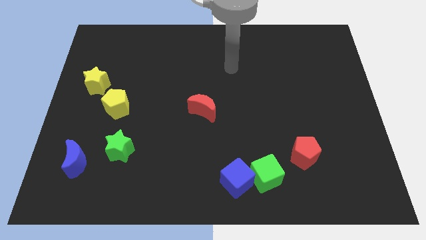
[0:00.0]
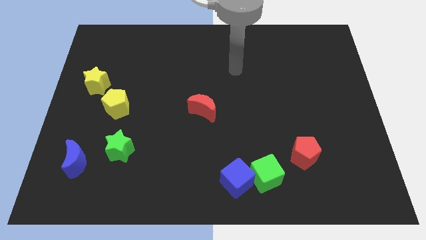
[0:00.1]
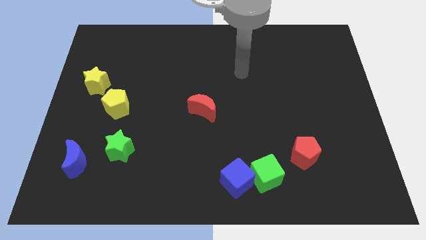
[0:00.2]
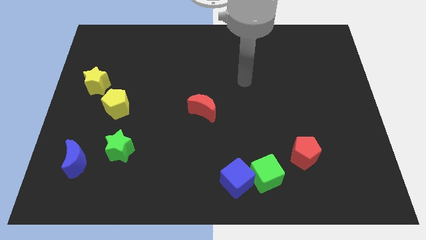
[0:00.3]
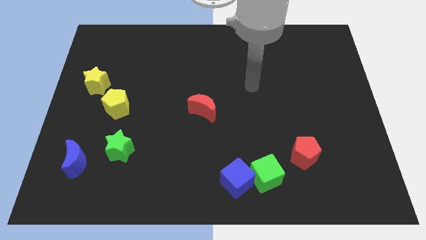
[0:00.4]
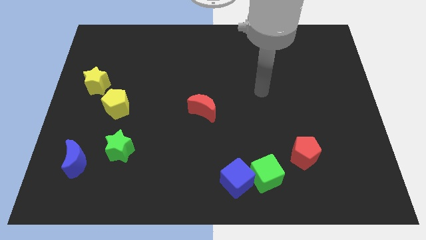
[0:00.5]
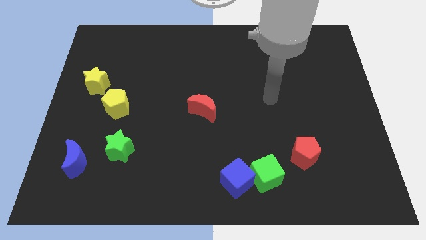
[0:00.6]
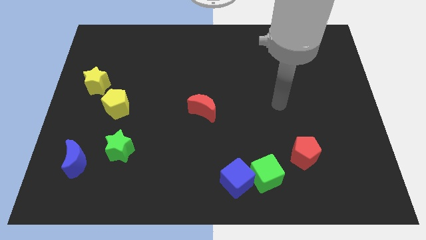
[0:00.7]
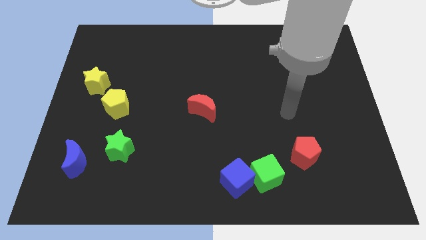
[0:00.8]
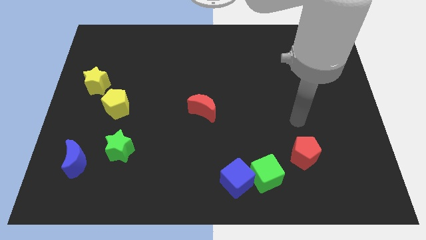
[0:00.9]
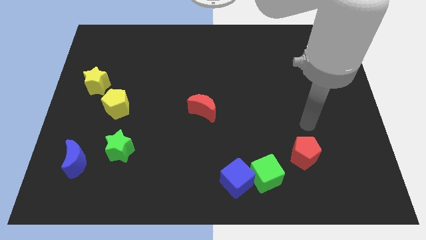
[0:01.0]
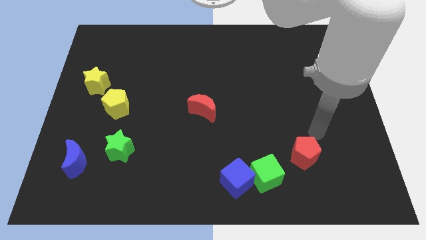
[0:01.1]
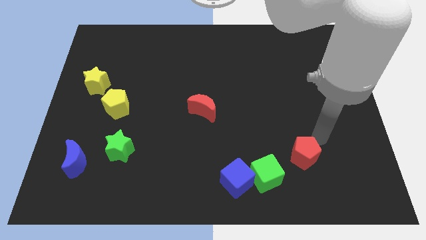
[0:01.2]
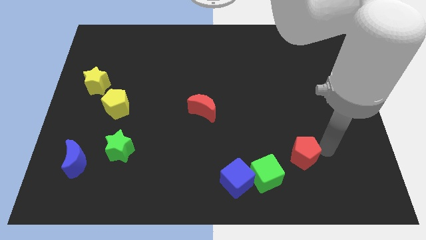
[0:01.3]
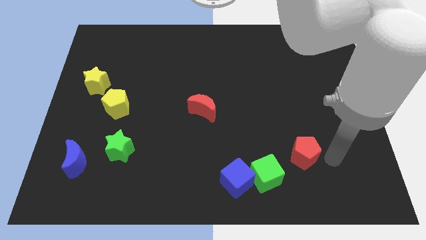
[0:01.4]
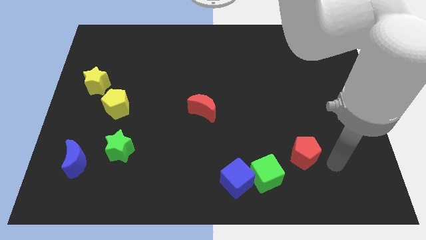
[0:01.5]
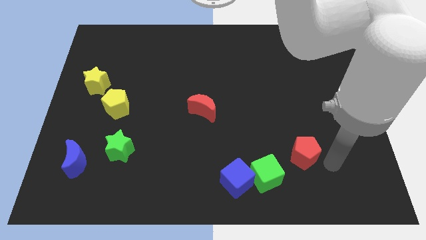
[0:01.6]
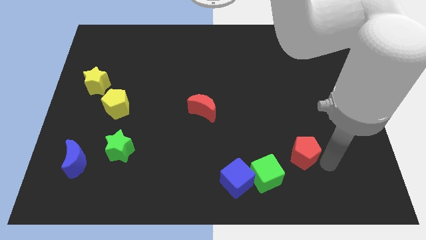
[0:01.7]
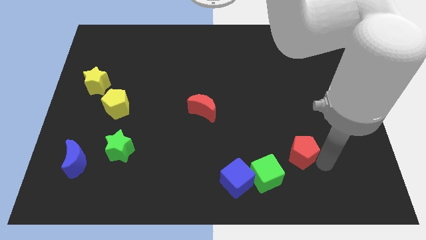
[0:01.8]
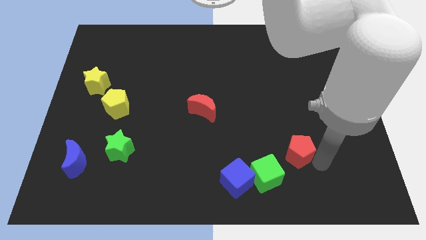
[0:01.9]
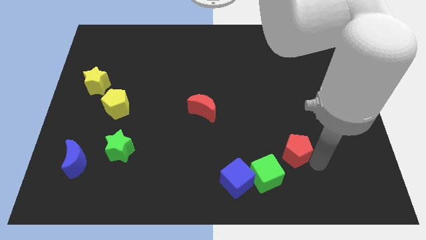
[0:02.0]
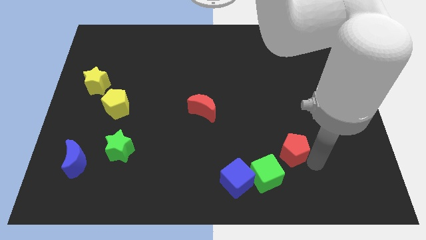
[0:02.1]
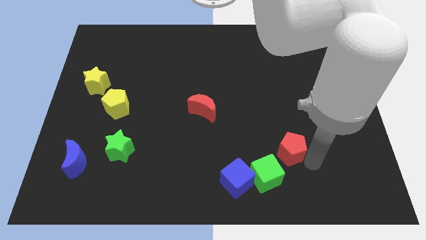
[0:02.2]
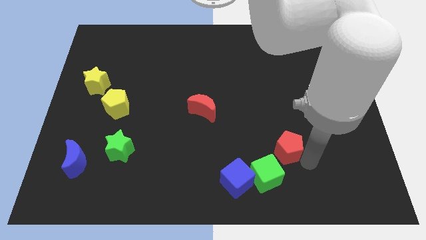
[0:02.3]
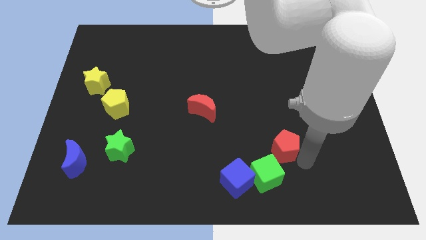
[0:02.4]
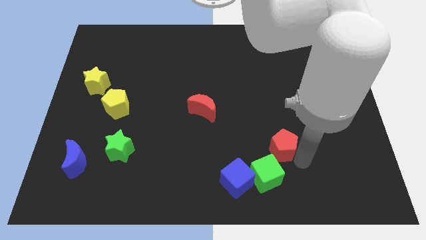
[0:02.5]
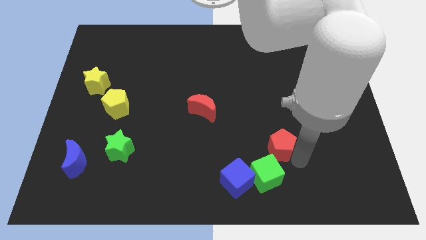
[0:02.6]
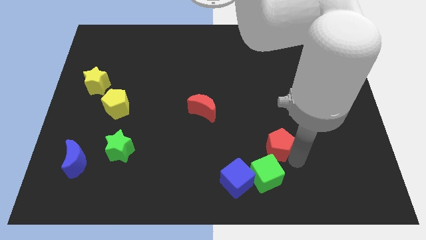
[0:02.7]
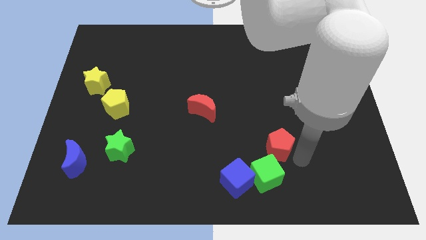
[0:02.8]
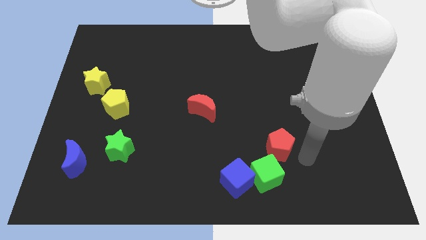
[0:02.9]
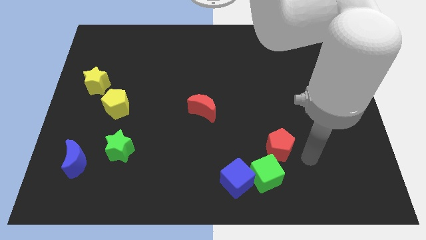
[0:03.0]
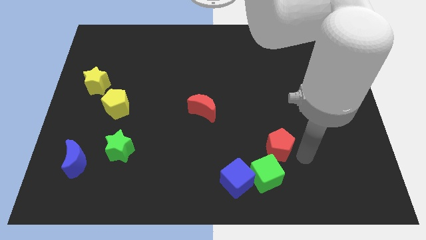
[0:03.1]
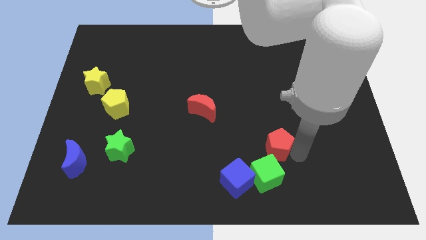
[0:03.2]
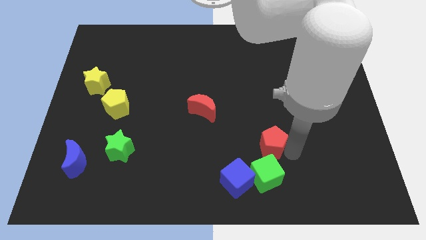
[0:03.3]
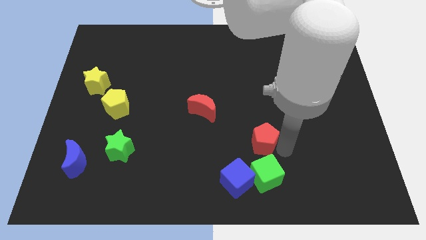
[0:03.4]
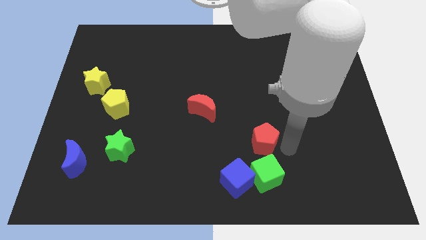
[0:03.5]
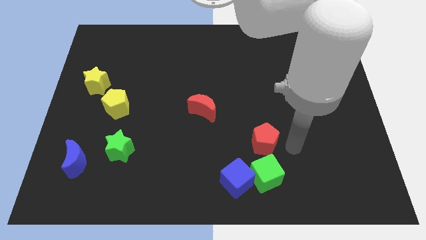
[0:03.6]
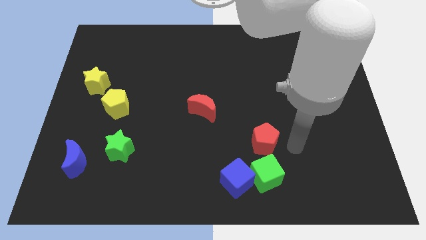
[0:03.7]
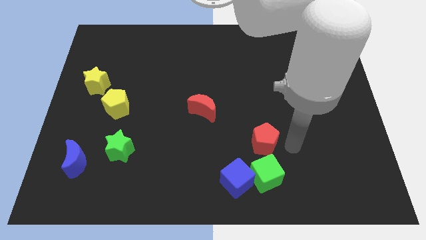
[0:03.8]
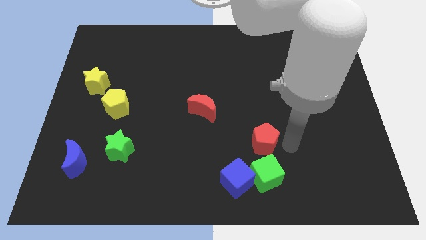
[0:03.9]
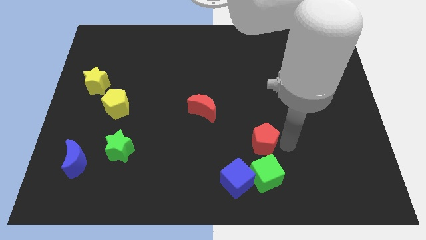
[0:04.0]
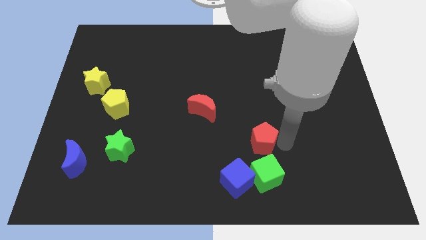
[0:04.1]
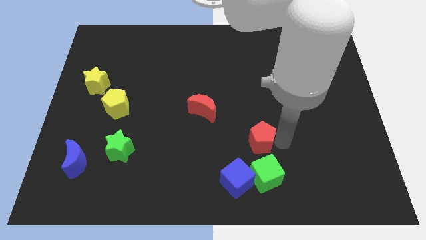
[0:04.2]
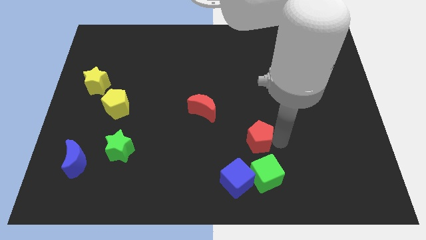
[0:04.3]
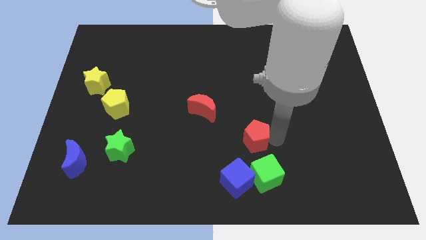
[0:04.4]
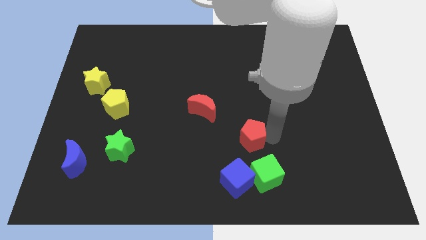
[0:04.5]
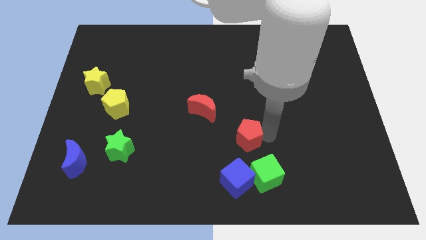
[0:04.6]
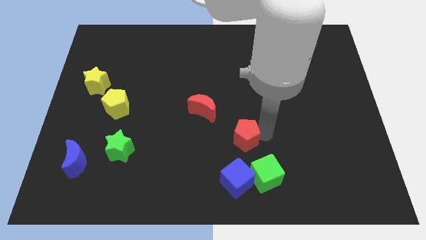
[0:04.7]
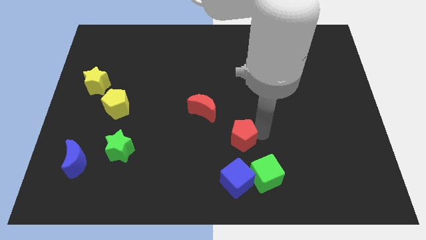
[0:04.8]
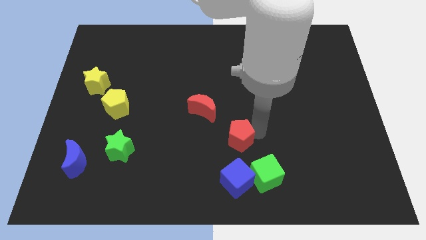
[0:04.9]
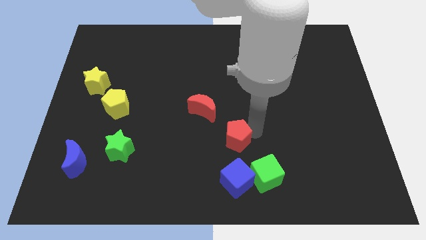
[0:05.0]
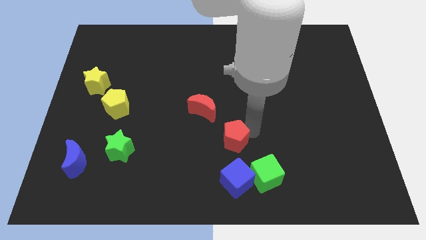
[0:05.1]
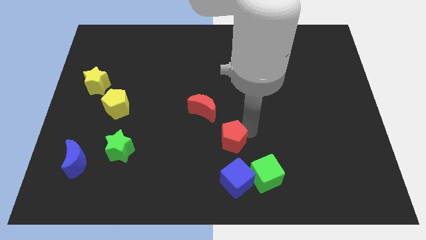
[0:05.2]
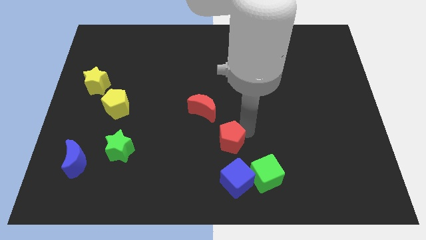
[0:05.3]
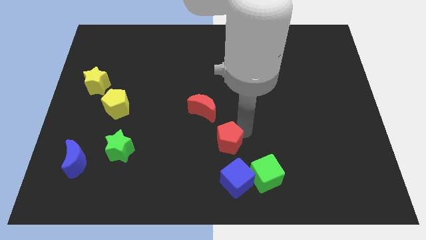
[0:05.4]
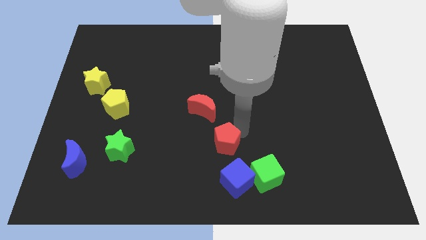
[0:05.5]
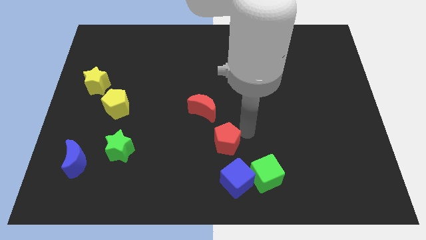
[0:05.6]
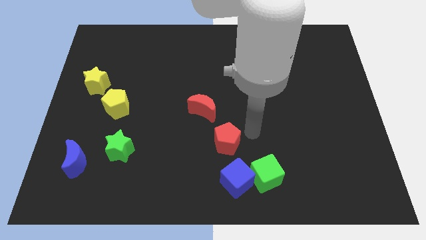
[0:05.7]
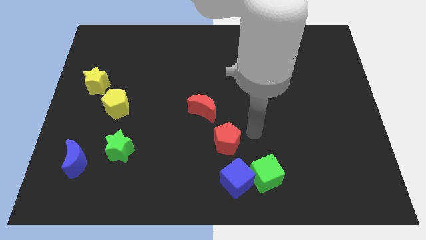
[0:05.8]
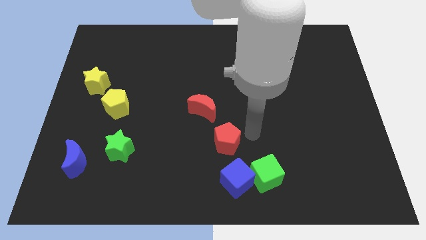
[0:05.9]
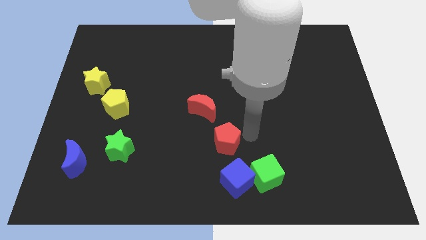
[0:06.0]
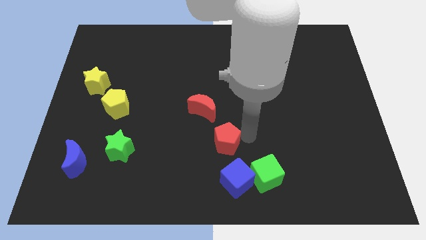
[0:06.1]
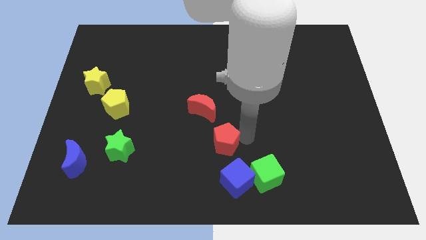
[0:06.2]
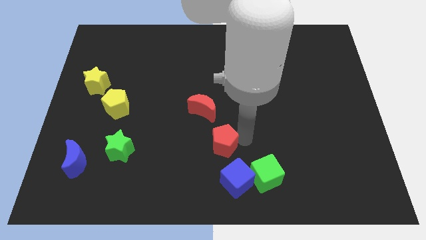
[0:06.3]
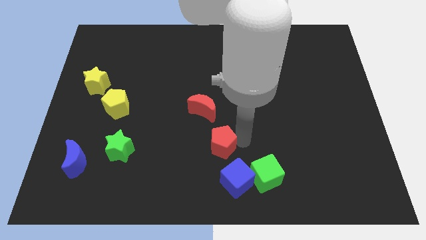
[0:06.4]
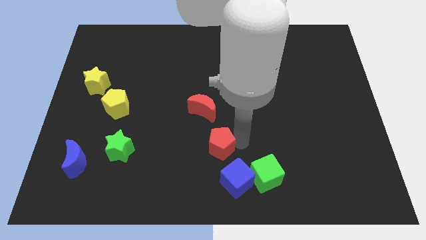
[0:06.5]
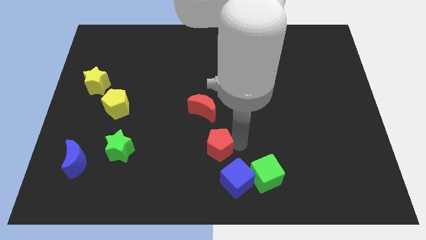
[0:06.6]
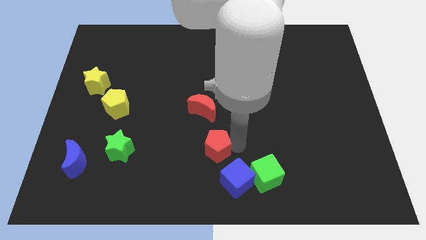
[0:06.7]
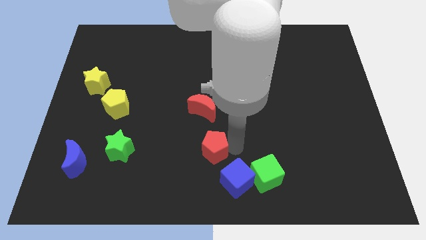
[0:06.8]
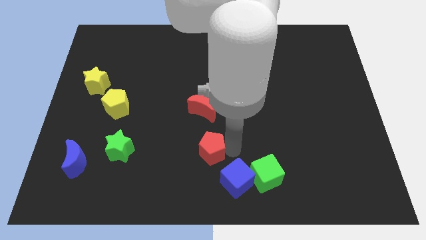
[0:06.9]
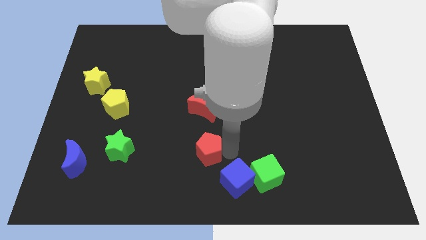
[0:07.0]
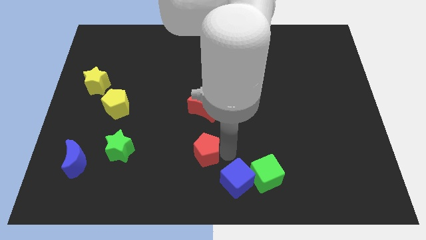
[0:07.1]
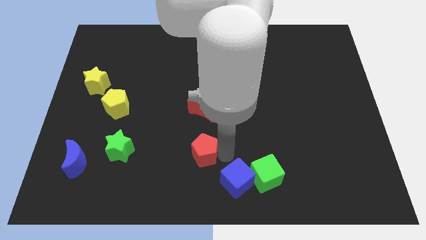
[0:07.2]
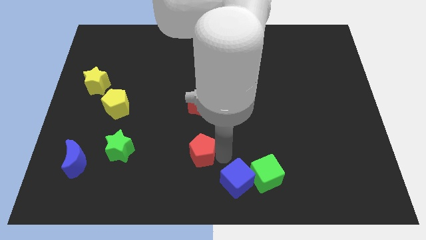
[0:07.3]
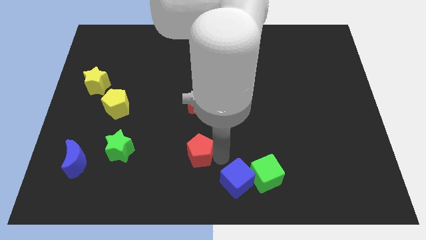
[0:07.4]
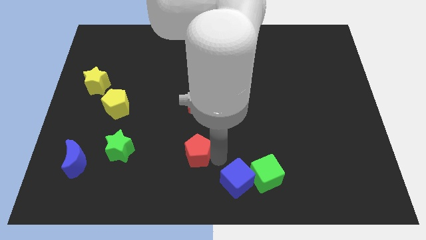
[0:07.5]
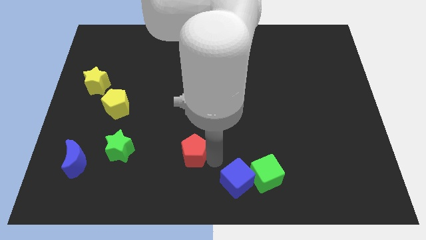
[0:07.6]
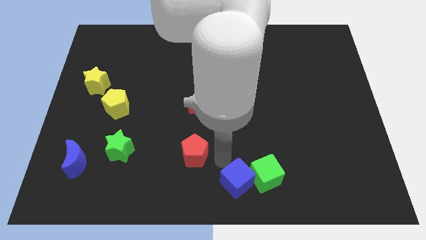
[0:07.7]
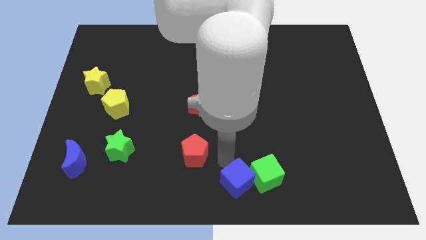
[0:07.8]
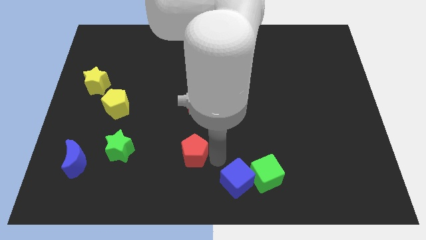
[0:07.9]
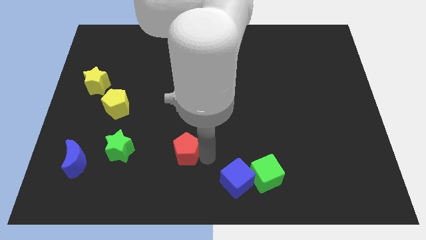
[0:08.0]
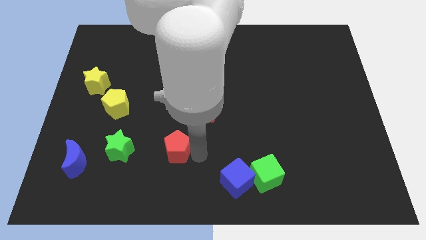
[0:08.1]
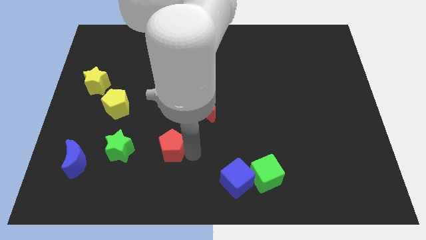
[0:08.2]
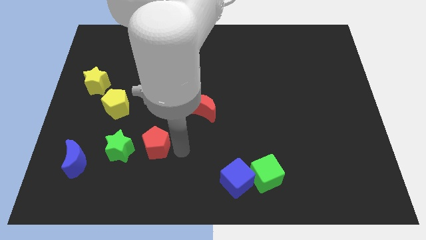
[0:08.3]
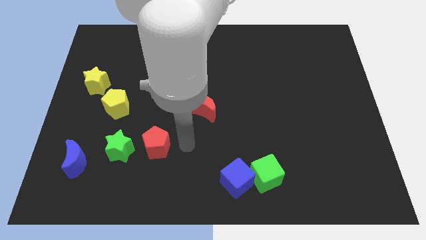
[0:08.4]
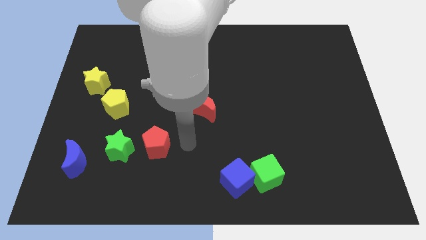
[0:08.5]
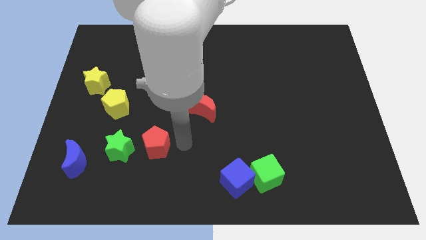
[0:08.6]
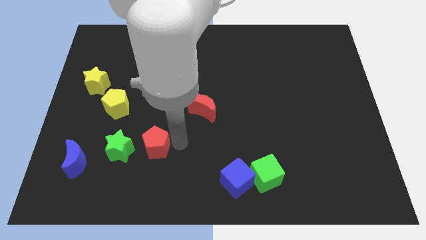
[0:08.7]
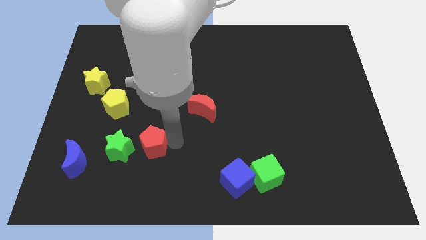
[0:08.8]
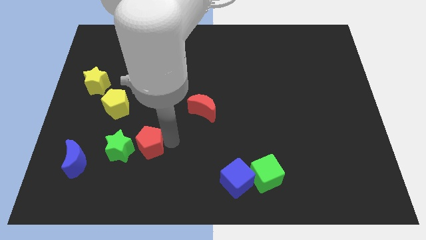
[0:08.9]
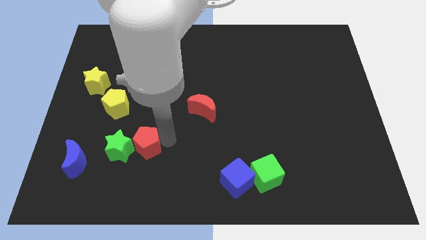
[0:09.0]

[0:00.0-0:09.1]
put the red pentagon close to the green star
